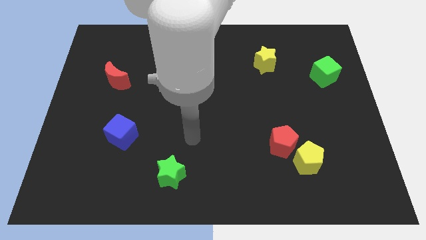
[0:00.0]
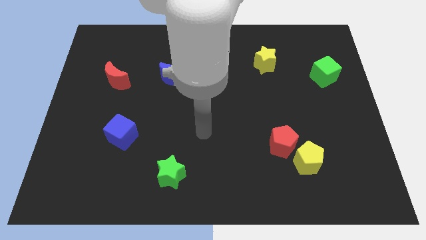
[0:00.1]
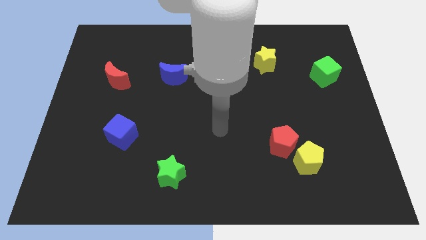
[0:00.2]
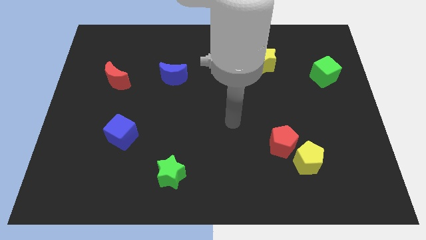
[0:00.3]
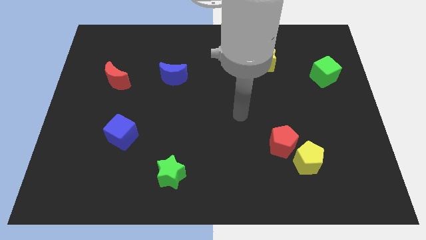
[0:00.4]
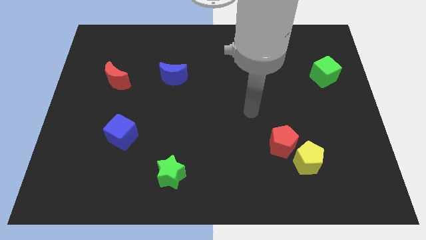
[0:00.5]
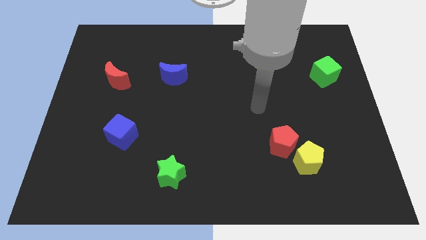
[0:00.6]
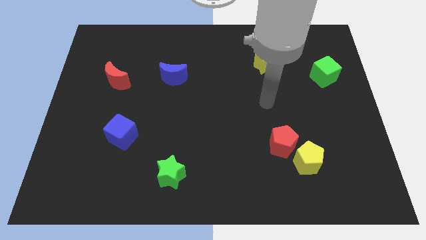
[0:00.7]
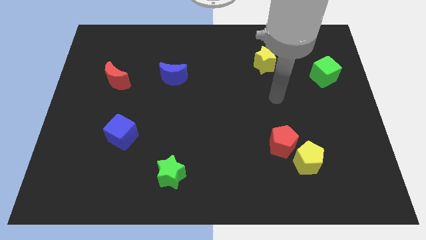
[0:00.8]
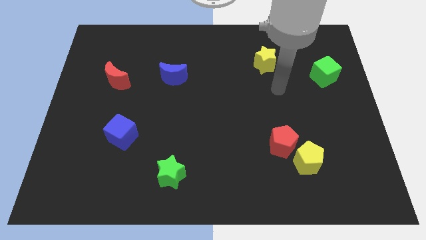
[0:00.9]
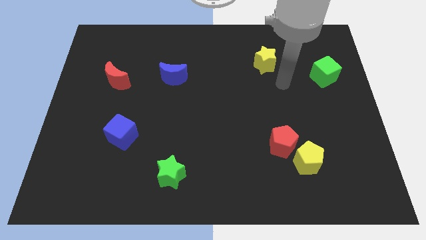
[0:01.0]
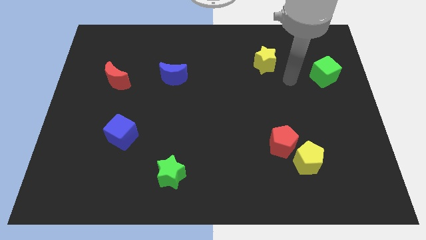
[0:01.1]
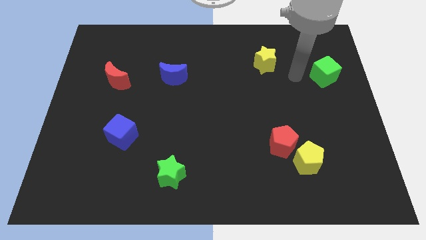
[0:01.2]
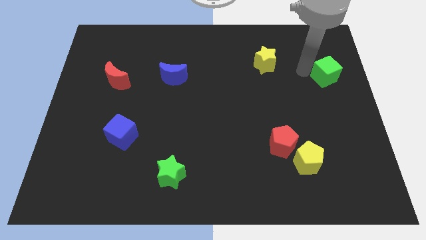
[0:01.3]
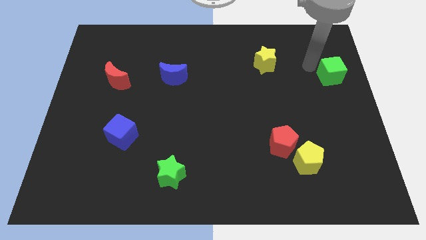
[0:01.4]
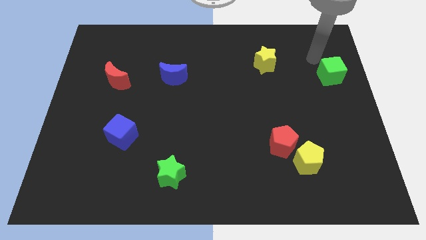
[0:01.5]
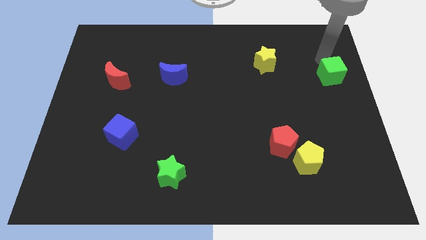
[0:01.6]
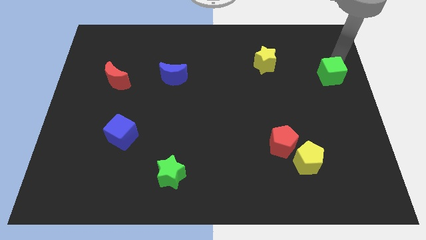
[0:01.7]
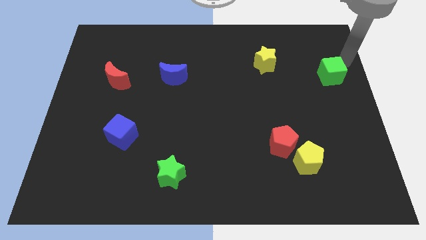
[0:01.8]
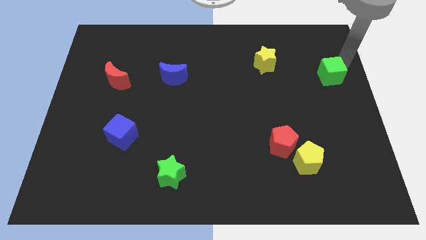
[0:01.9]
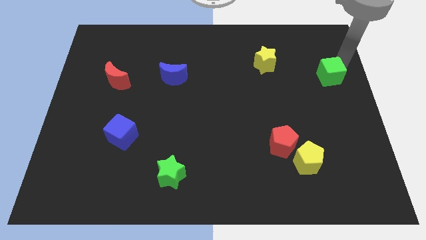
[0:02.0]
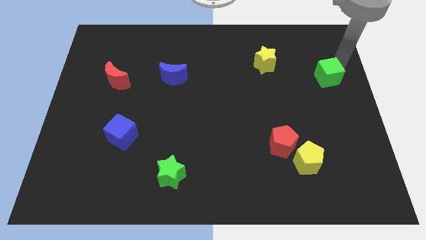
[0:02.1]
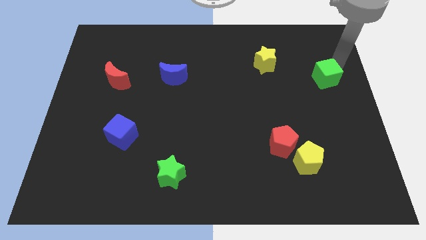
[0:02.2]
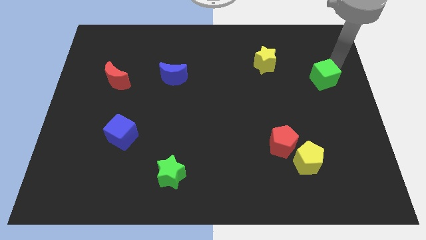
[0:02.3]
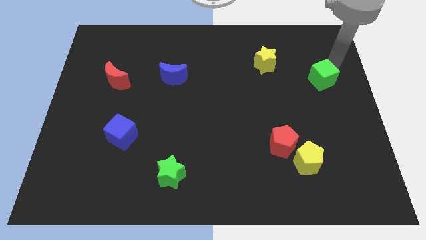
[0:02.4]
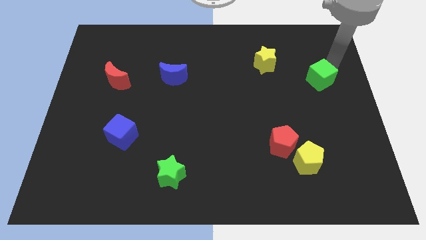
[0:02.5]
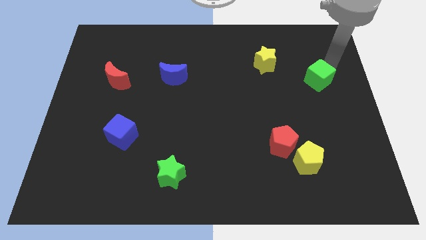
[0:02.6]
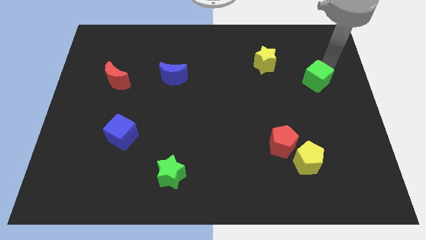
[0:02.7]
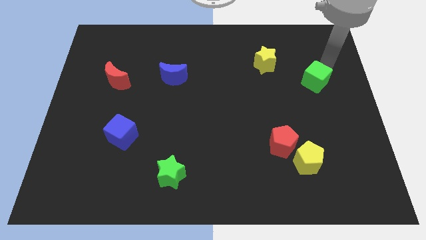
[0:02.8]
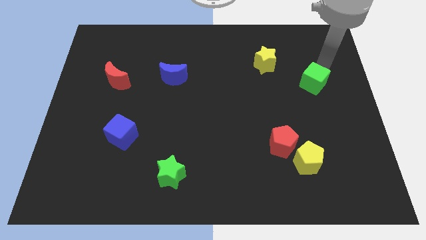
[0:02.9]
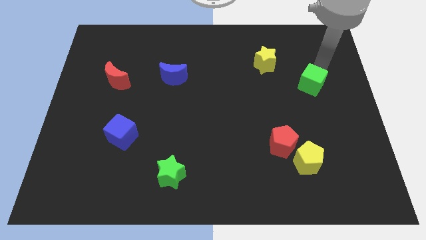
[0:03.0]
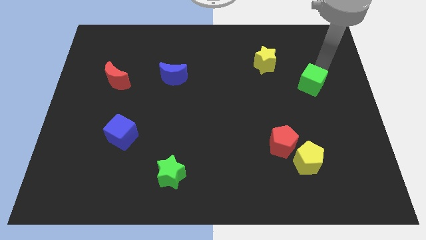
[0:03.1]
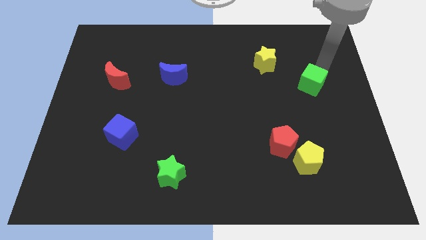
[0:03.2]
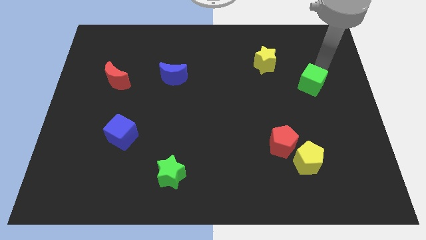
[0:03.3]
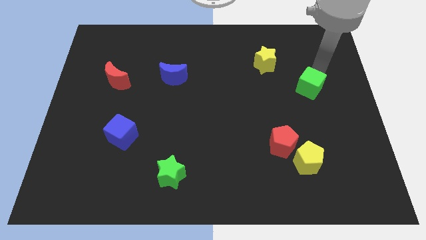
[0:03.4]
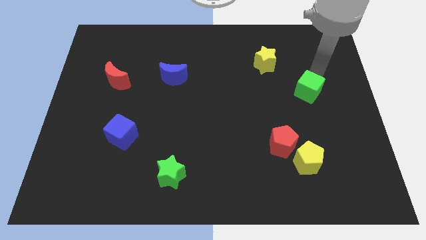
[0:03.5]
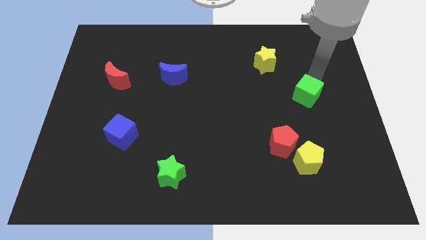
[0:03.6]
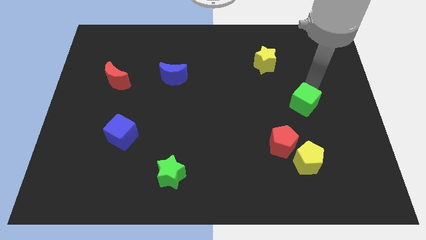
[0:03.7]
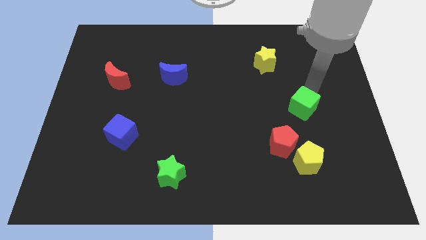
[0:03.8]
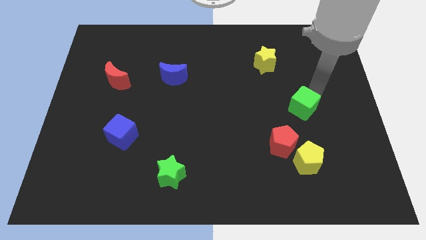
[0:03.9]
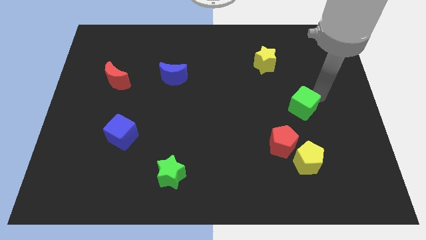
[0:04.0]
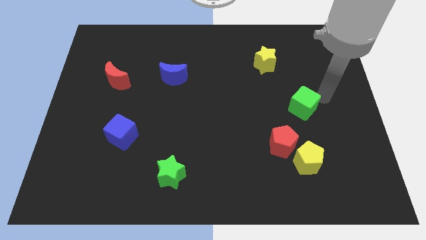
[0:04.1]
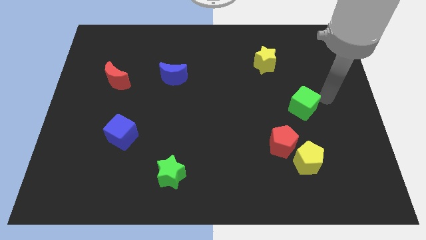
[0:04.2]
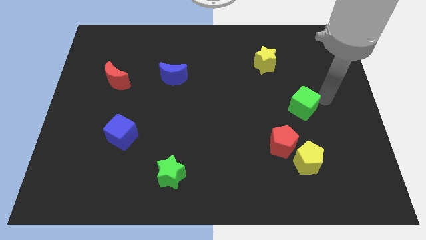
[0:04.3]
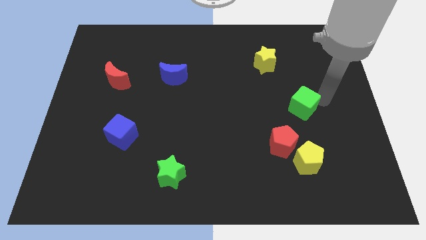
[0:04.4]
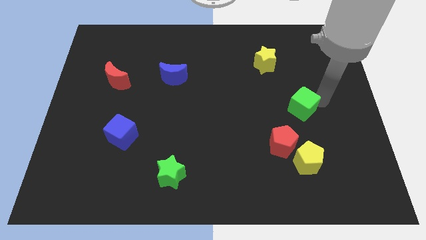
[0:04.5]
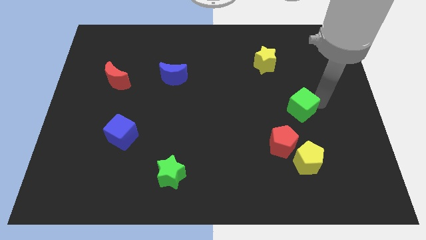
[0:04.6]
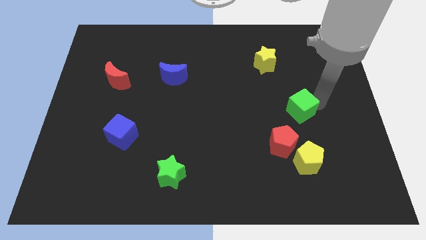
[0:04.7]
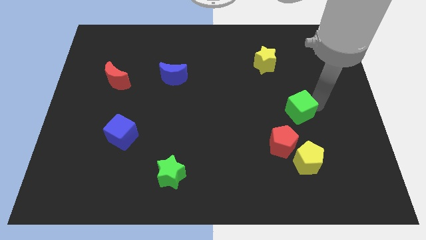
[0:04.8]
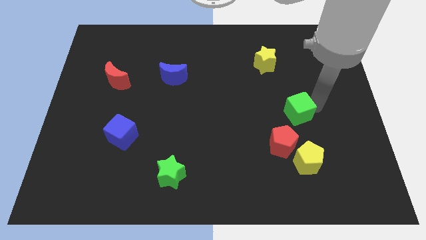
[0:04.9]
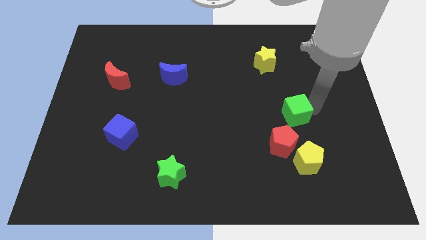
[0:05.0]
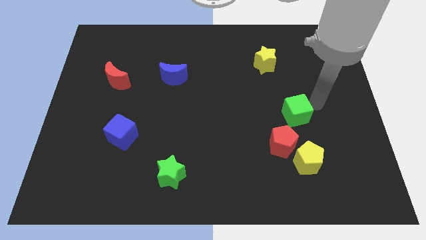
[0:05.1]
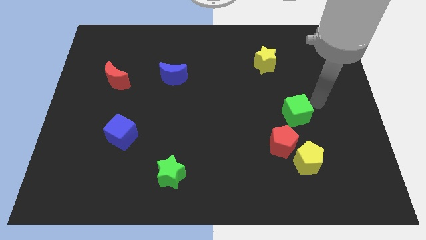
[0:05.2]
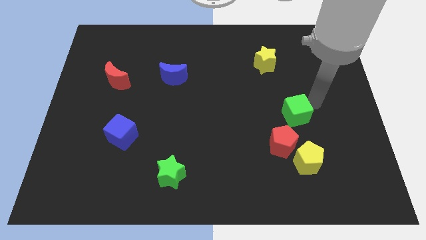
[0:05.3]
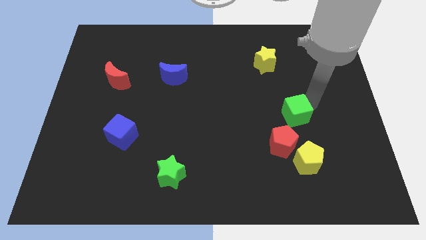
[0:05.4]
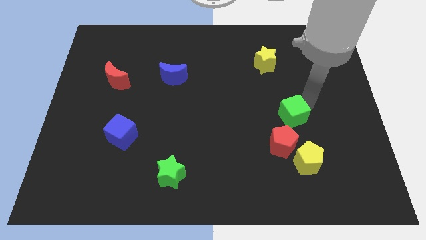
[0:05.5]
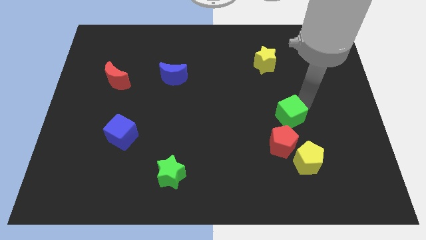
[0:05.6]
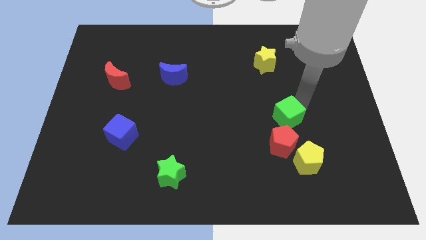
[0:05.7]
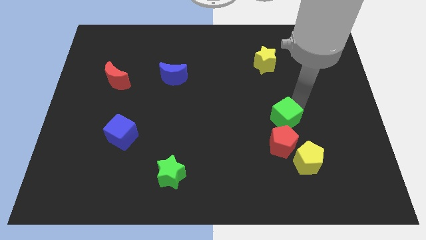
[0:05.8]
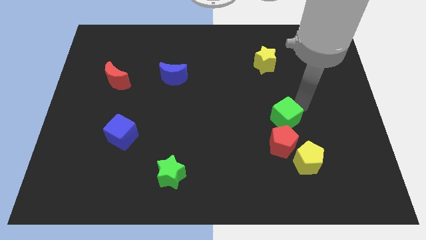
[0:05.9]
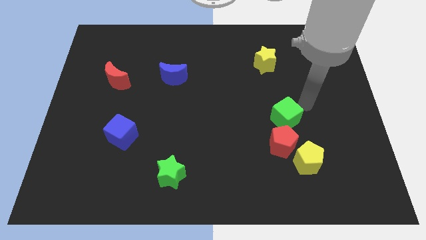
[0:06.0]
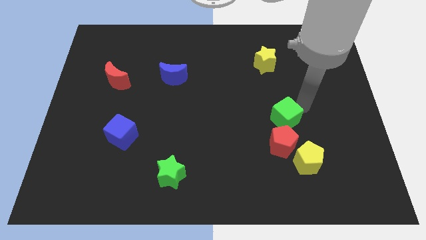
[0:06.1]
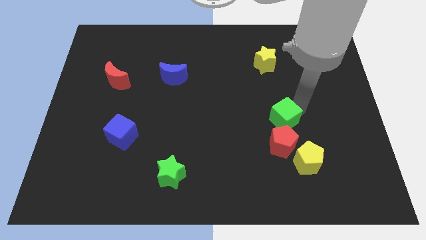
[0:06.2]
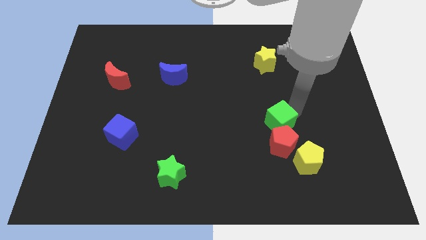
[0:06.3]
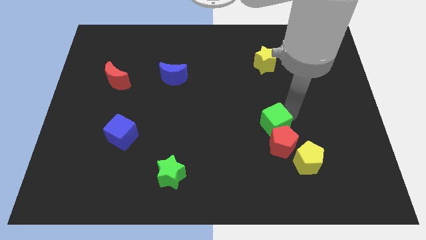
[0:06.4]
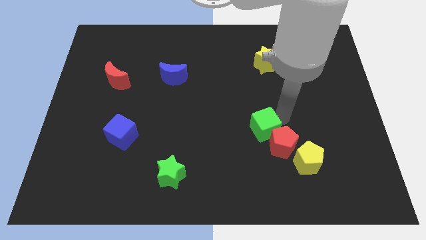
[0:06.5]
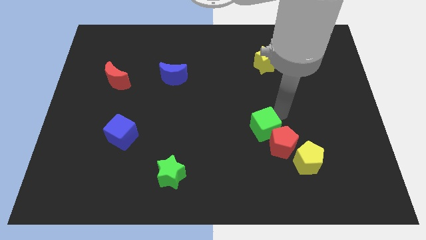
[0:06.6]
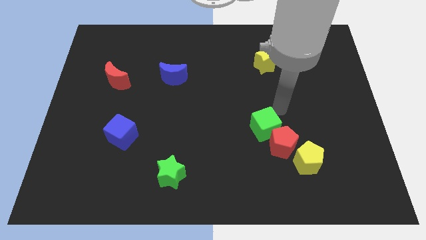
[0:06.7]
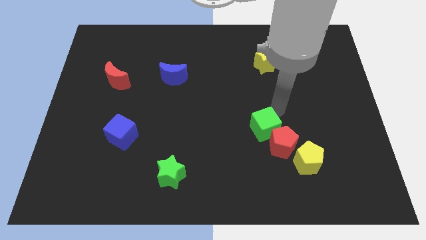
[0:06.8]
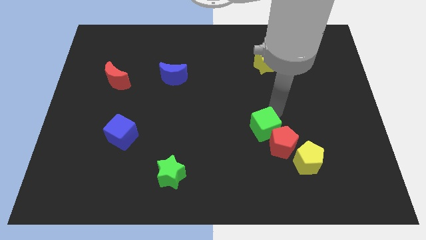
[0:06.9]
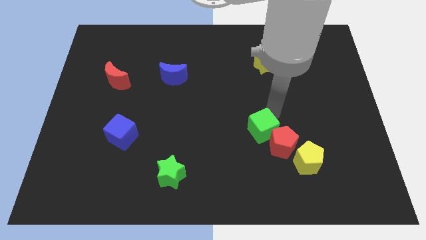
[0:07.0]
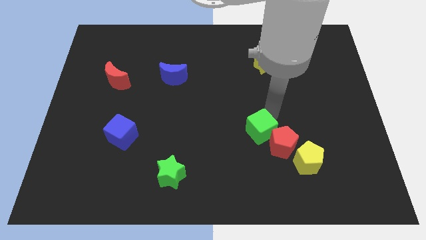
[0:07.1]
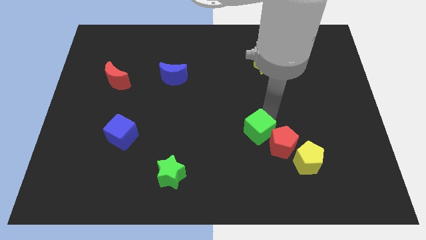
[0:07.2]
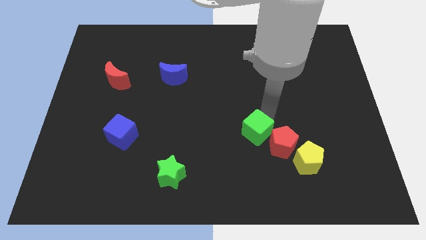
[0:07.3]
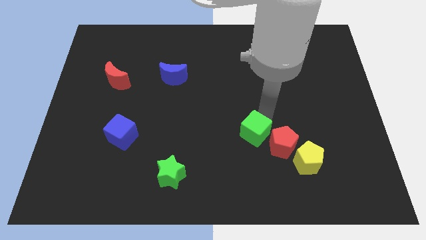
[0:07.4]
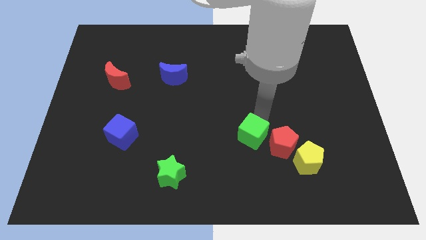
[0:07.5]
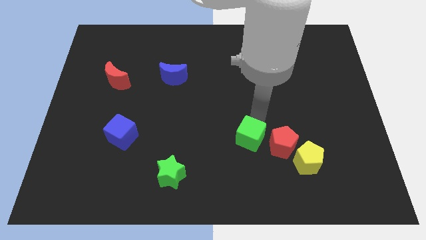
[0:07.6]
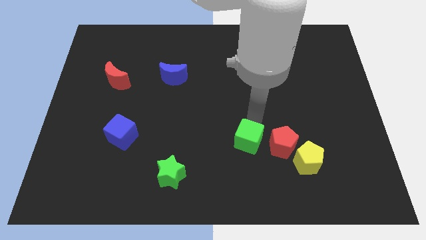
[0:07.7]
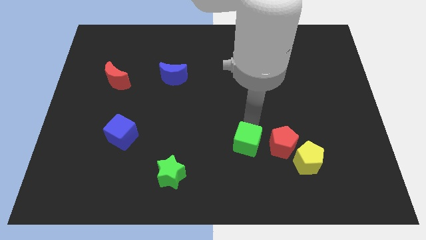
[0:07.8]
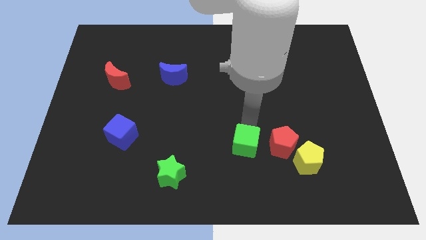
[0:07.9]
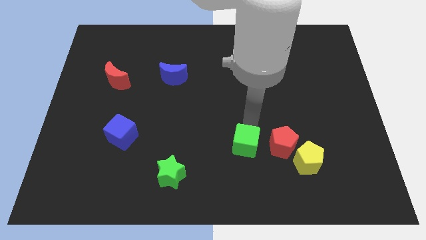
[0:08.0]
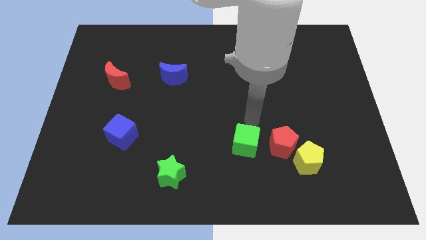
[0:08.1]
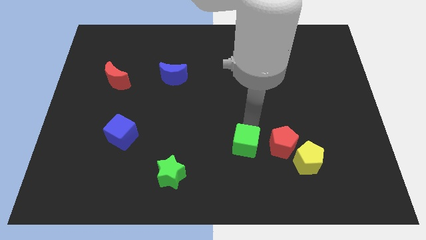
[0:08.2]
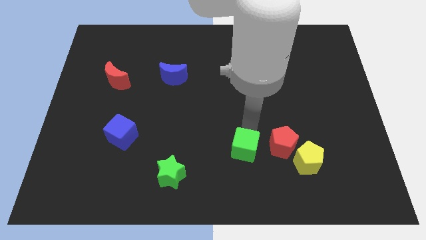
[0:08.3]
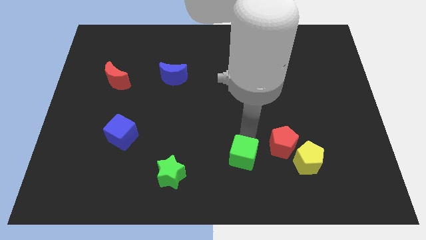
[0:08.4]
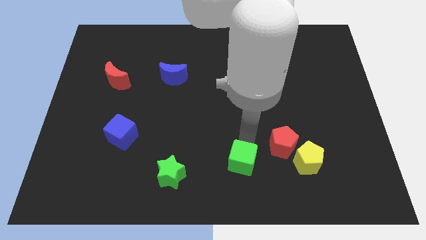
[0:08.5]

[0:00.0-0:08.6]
move the green cube to the bottom
